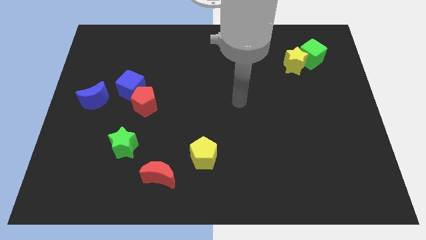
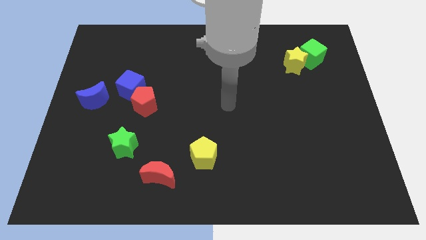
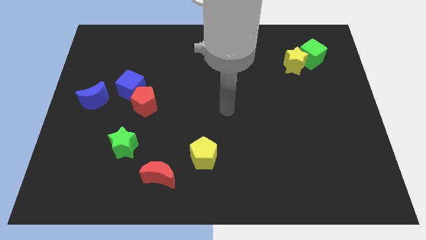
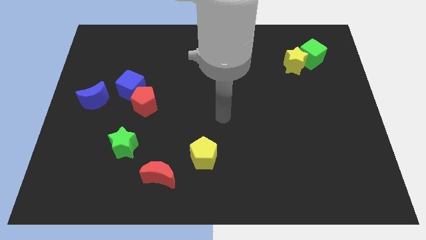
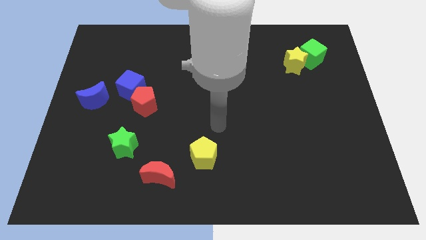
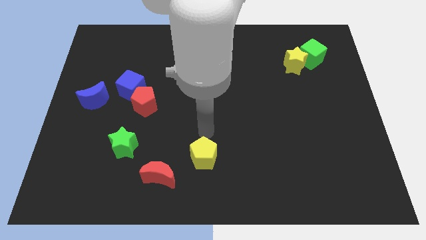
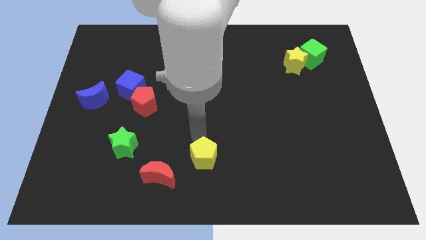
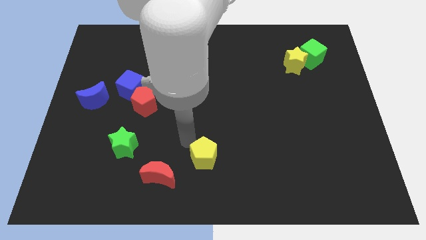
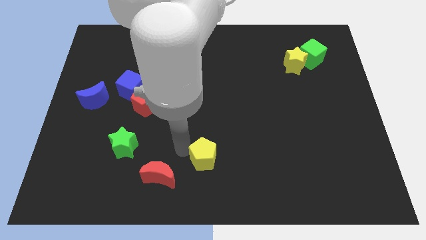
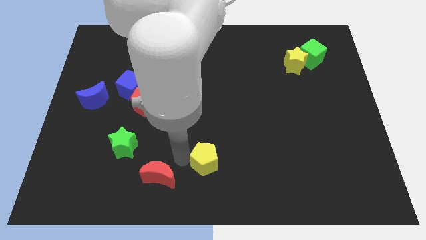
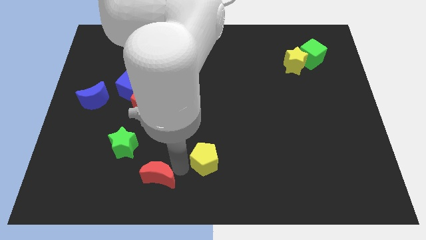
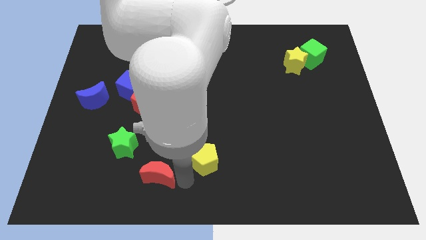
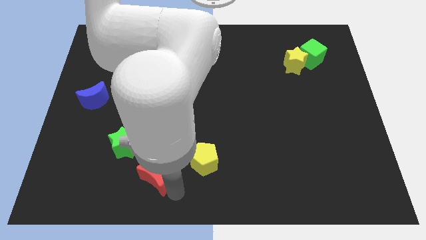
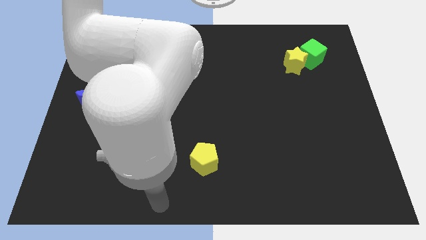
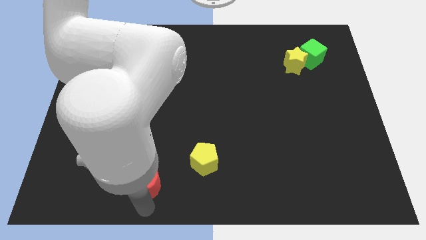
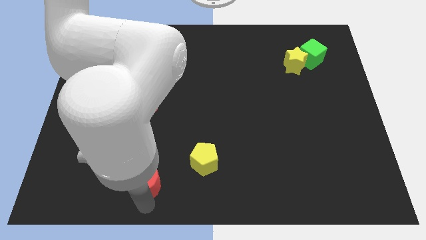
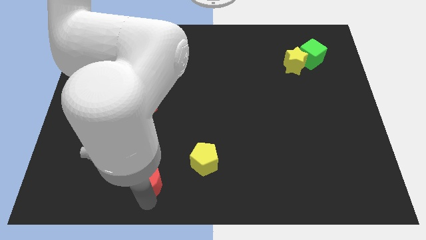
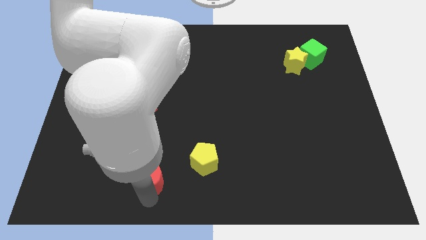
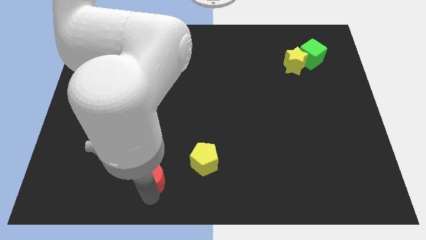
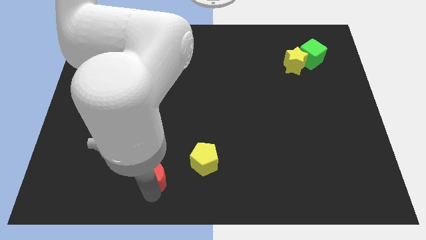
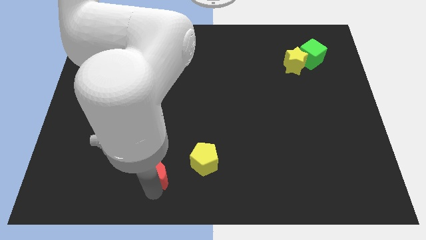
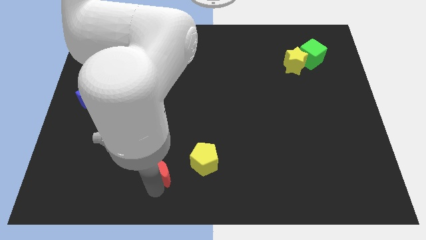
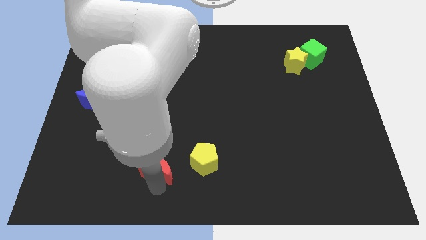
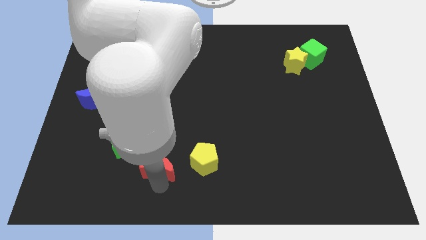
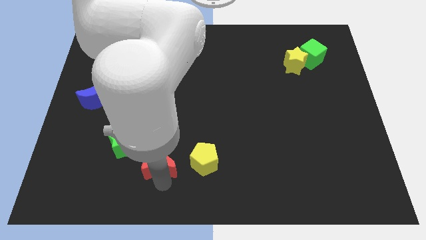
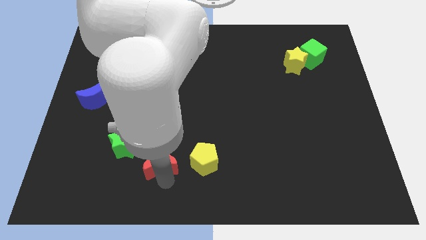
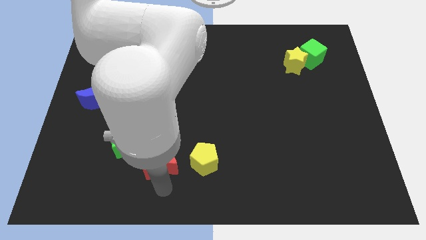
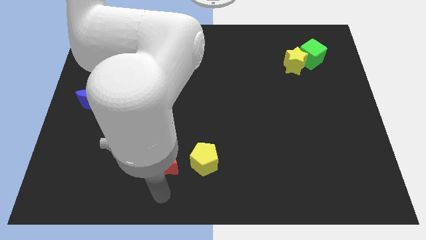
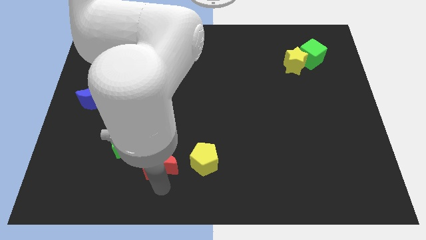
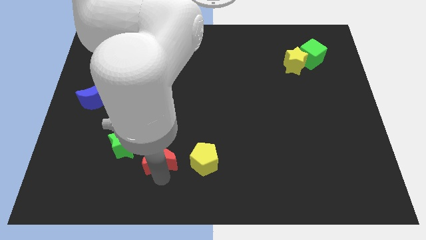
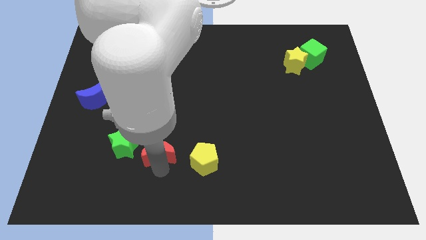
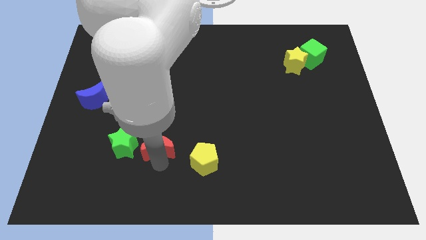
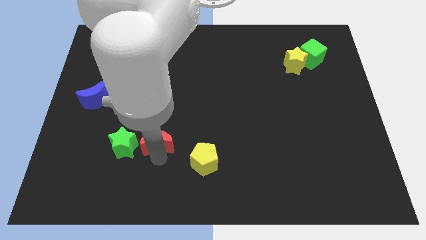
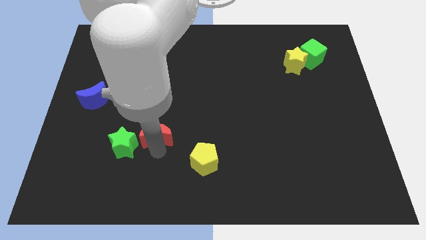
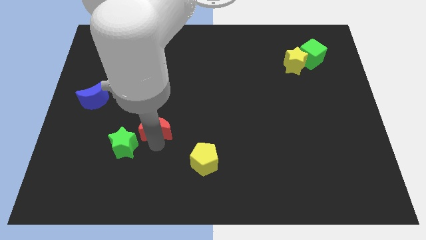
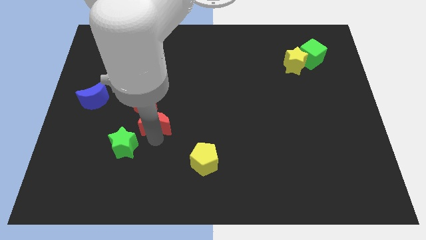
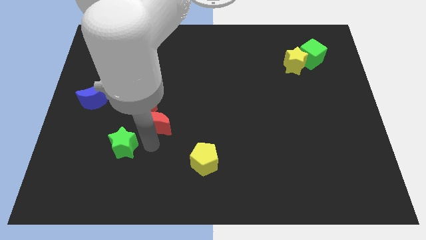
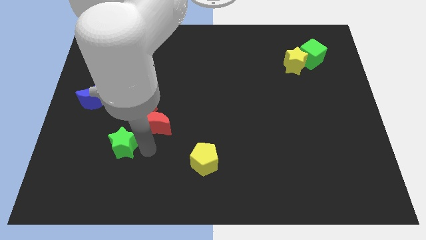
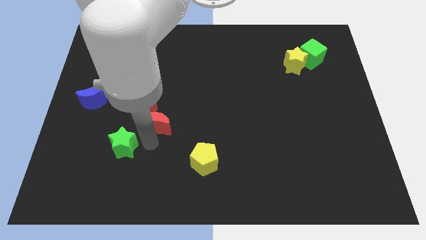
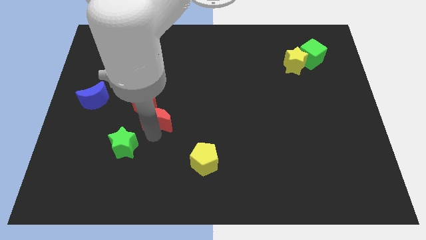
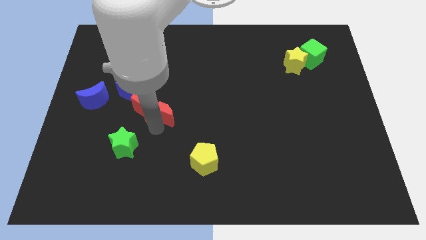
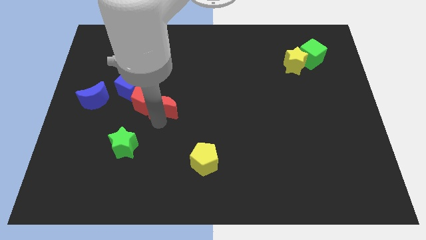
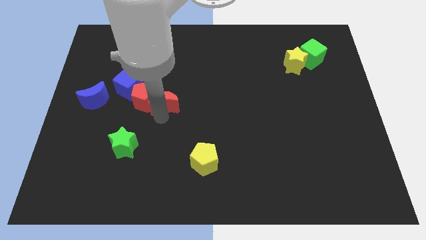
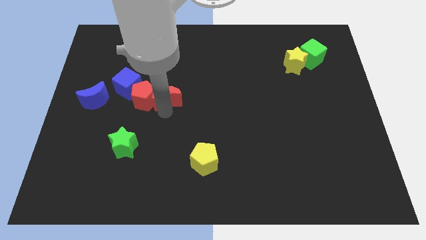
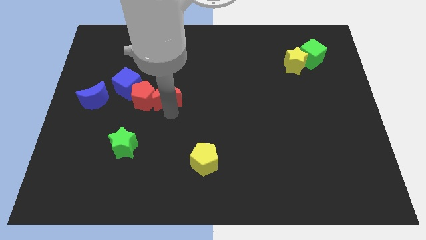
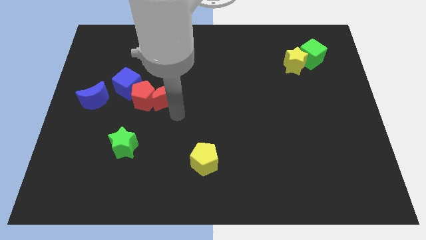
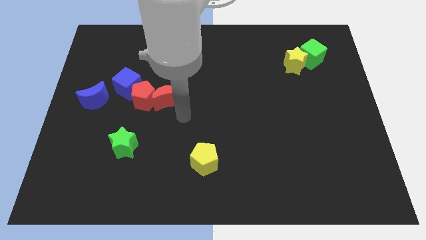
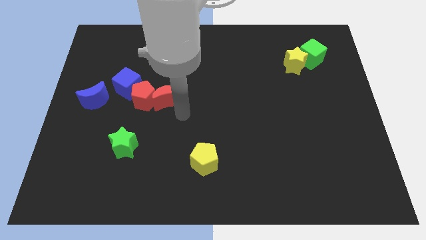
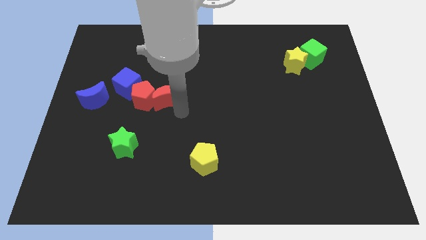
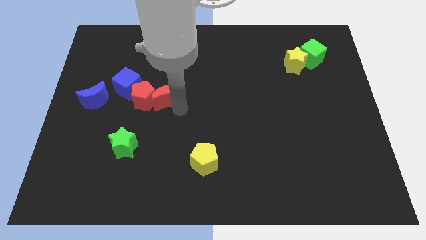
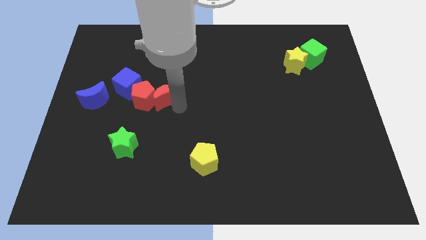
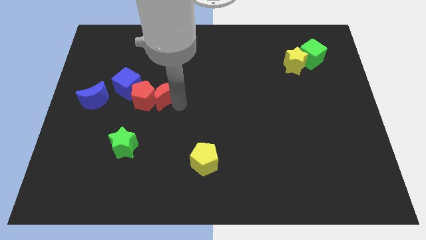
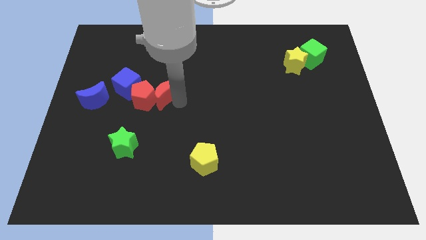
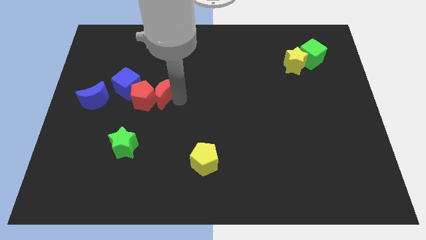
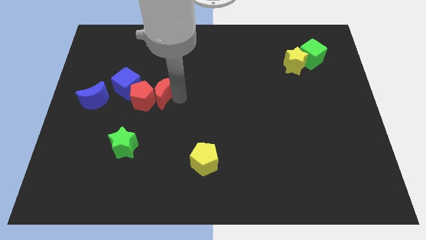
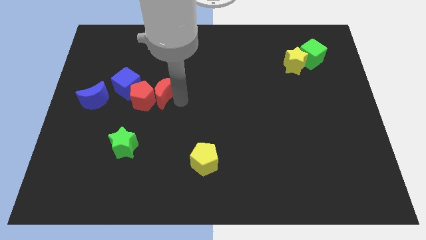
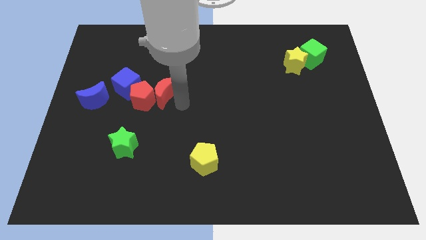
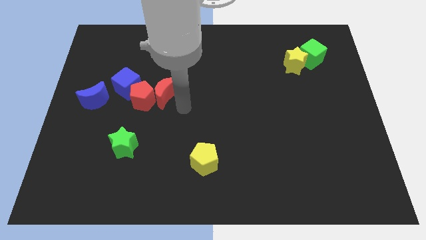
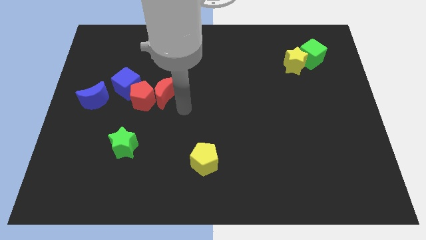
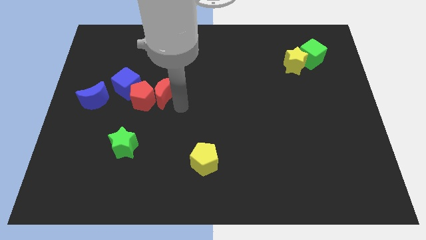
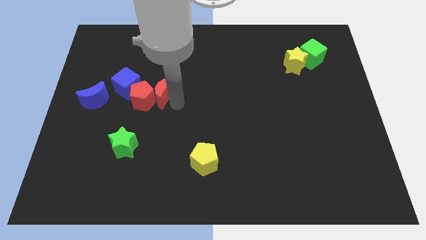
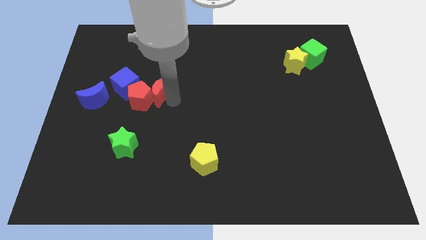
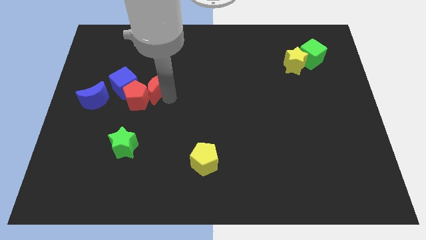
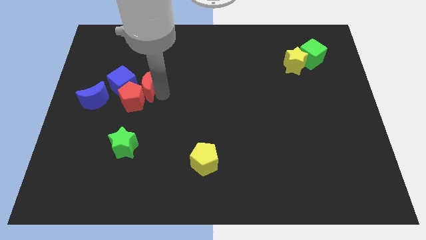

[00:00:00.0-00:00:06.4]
slide the red moon to the top side of the red pentagon
